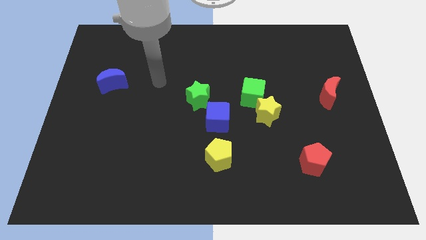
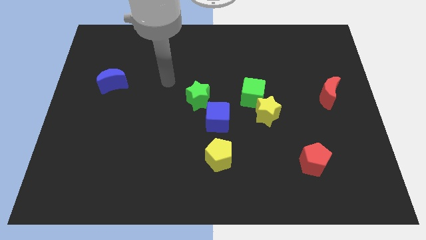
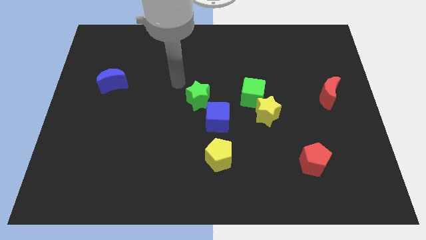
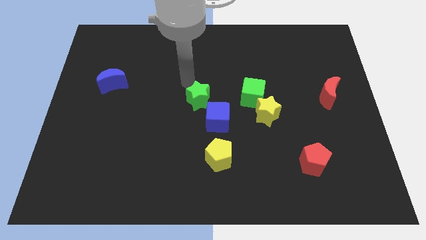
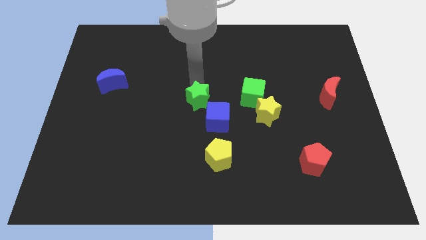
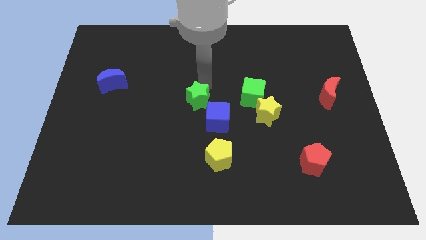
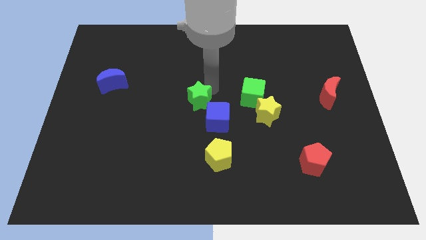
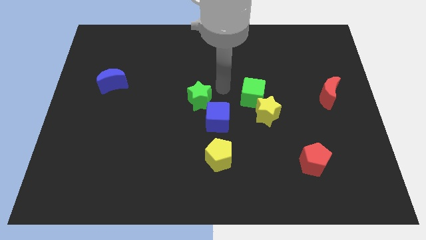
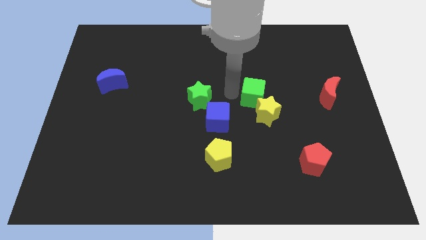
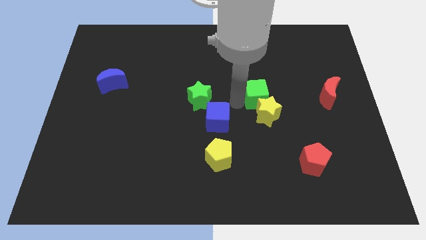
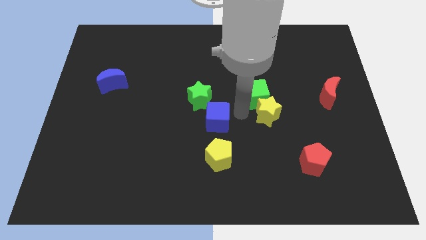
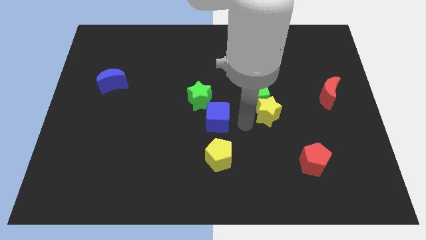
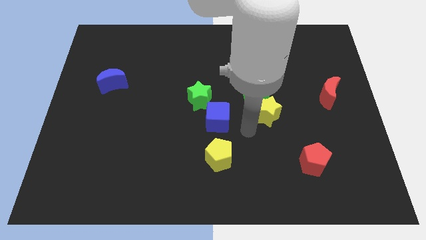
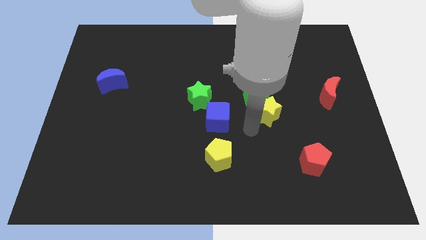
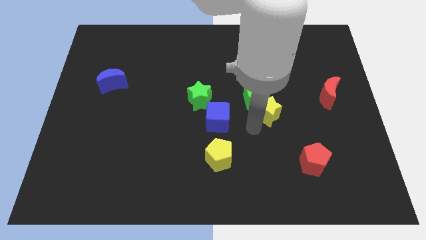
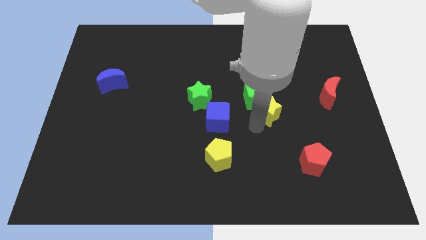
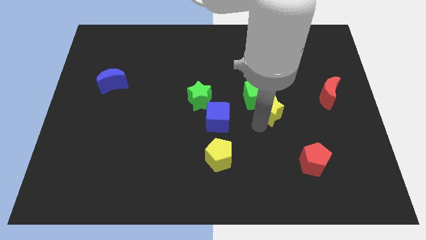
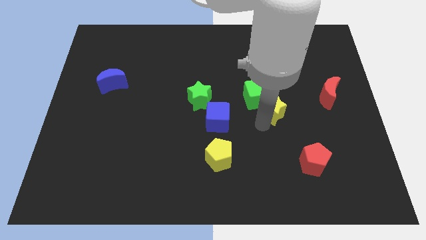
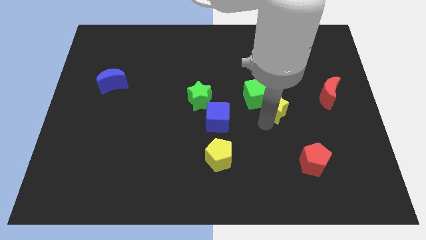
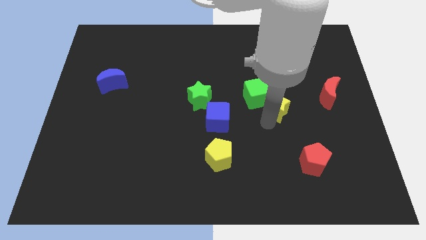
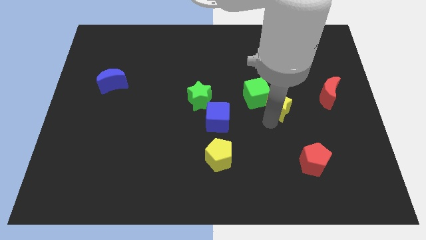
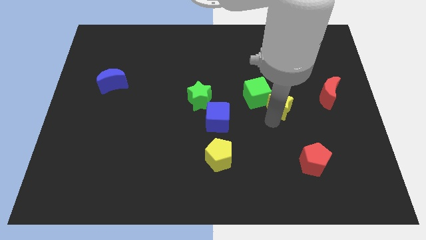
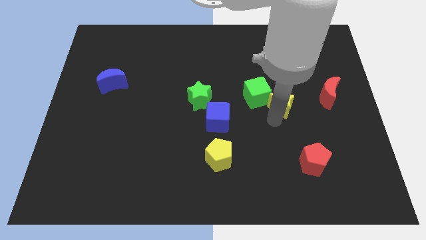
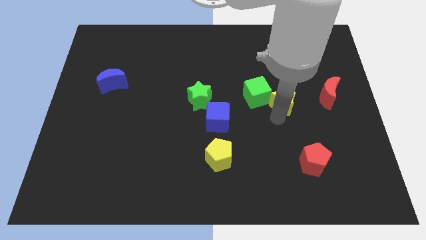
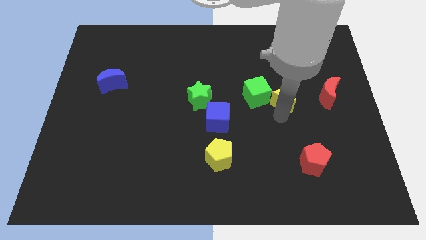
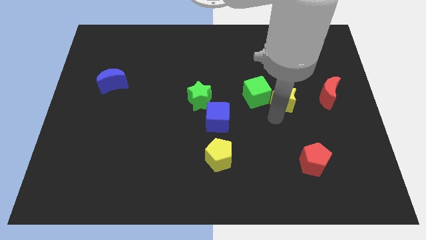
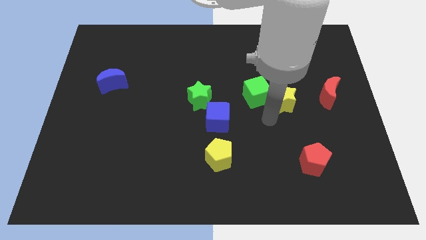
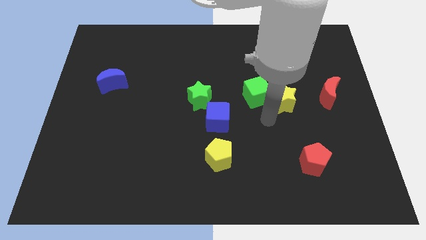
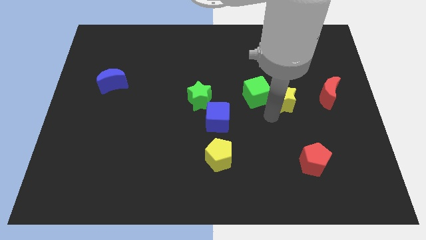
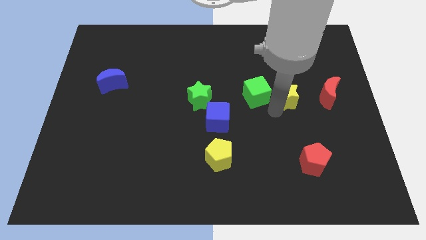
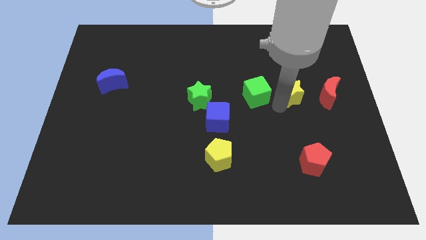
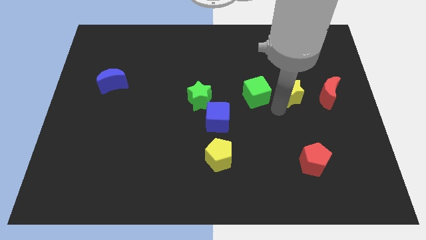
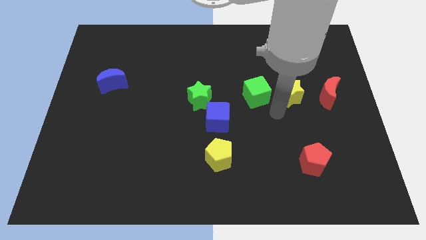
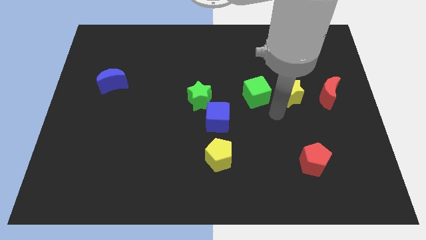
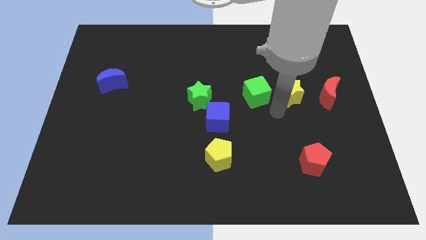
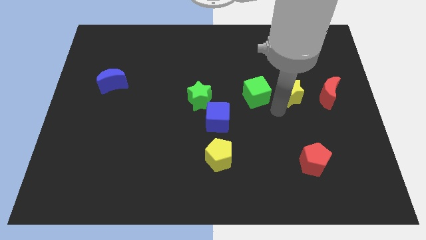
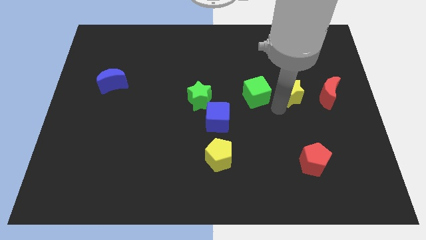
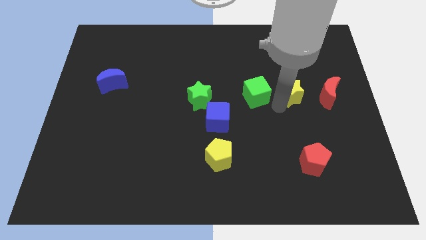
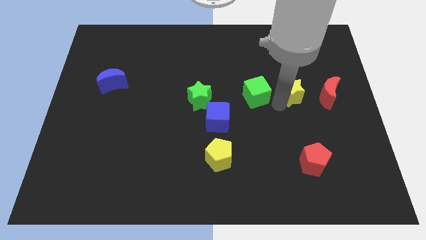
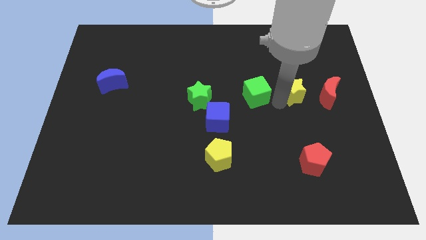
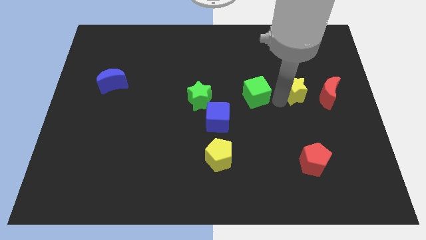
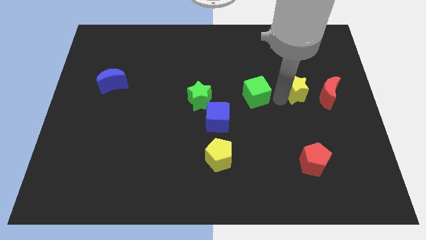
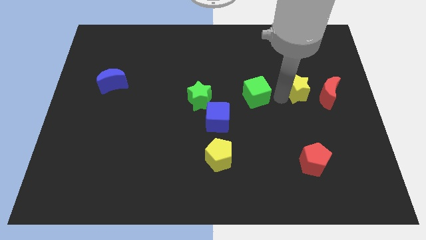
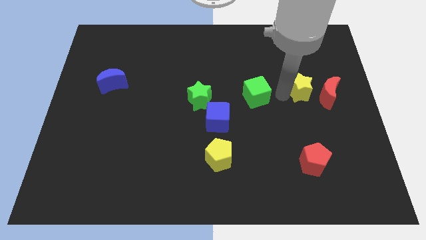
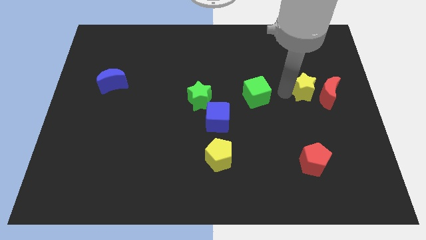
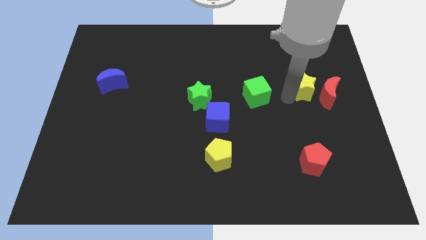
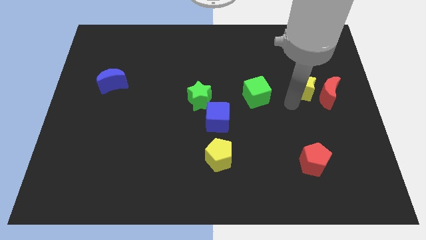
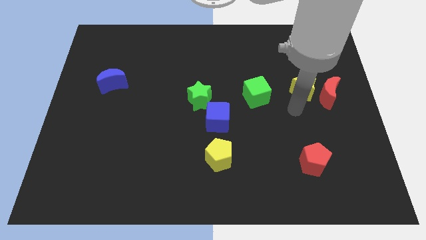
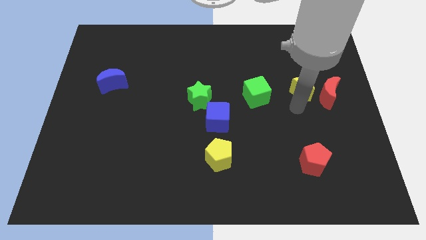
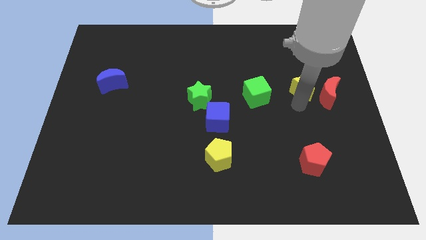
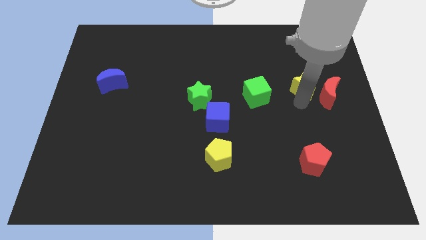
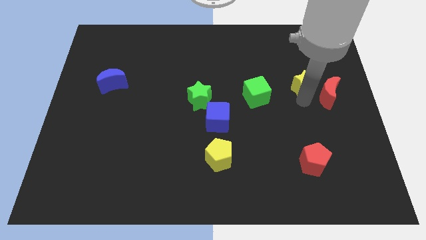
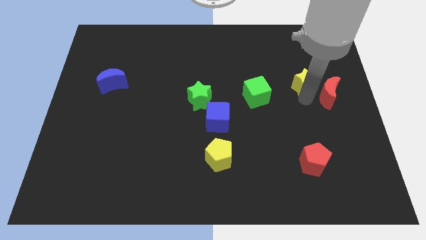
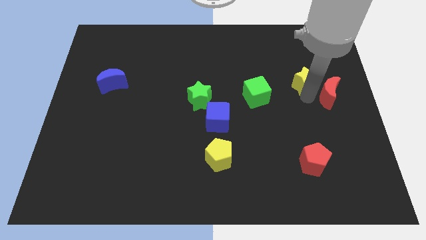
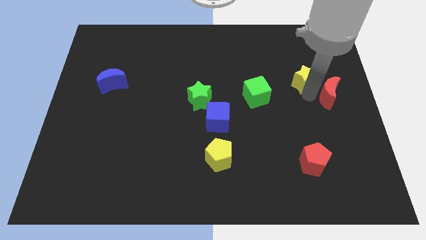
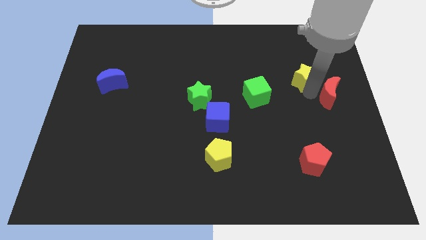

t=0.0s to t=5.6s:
slide the yellow star to the top of the red moon

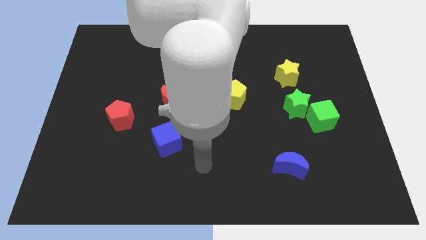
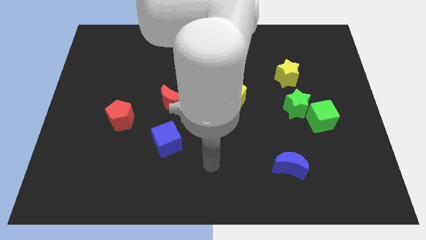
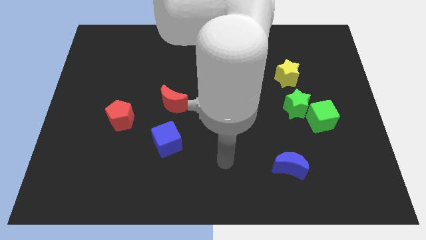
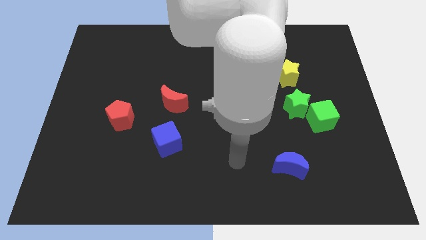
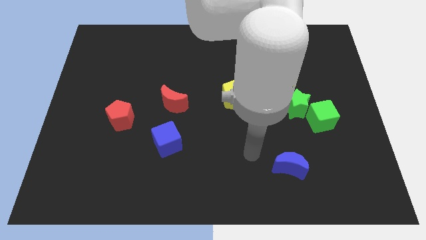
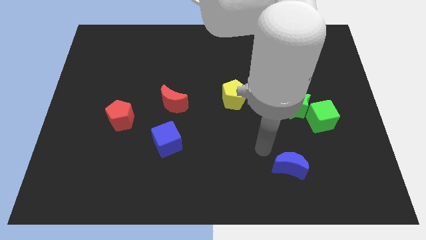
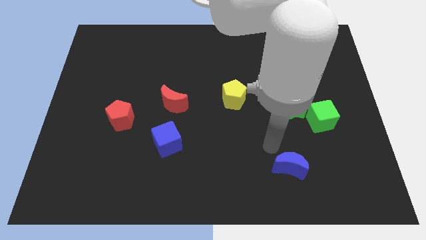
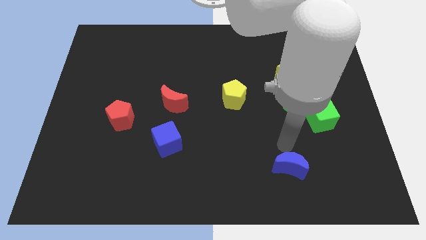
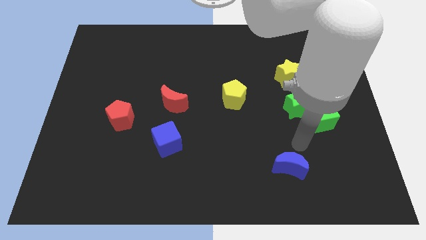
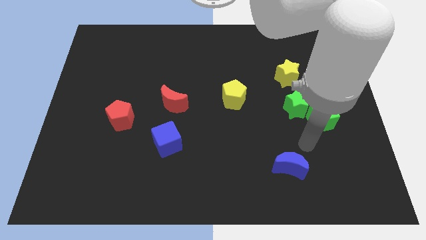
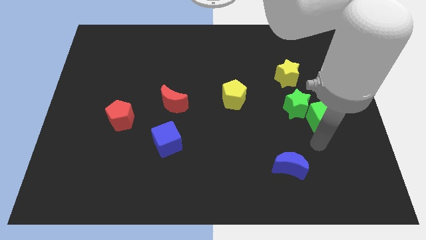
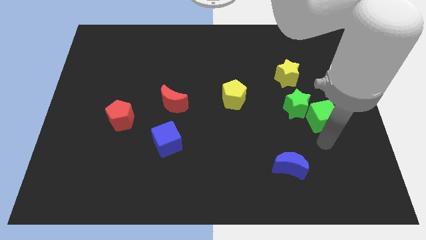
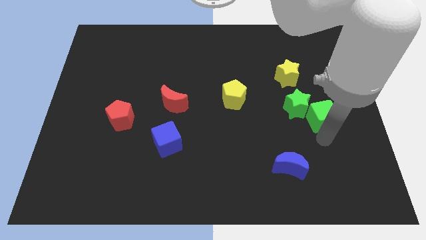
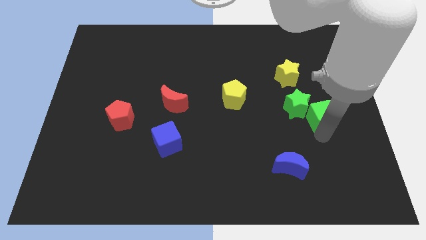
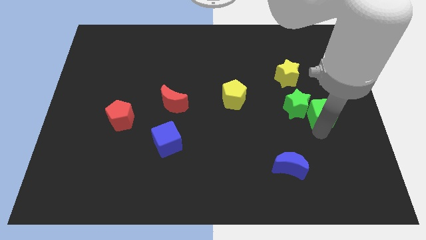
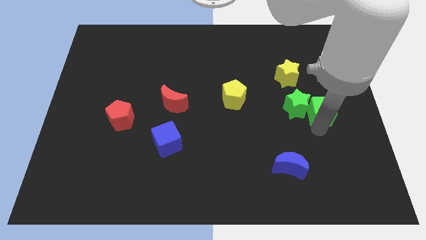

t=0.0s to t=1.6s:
push the green cube to the top right of the green star

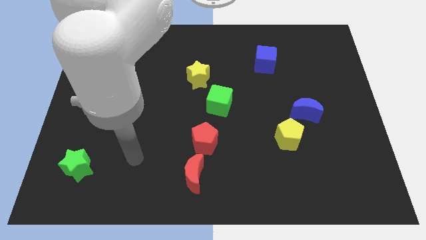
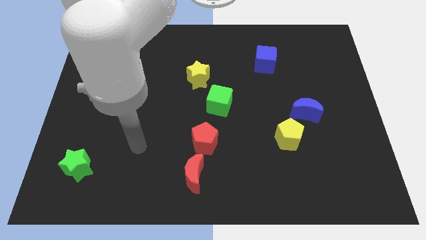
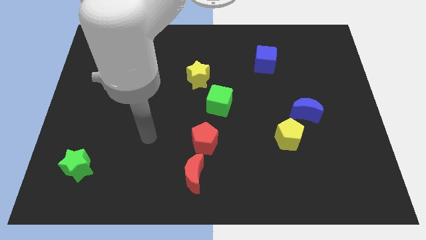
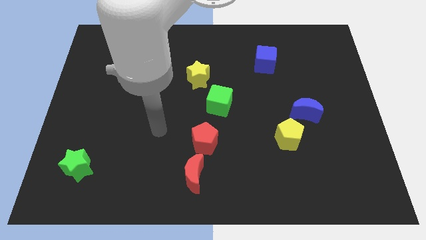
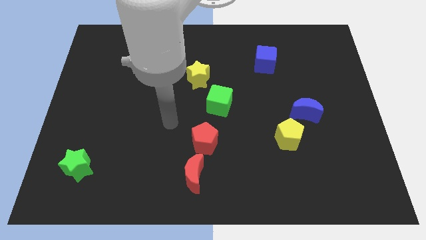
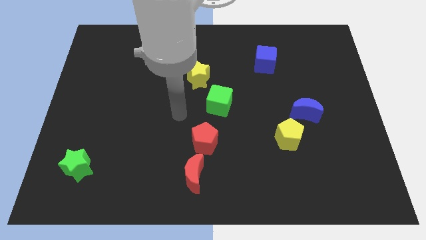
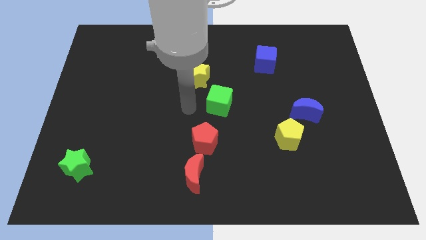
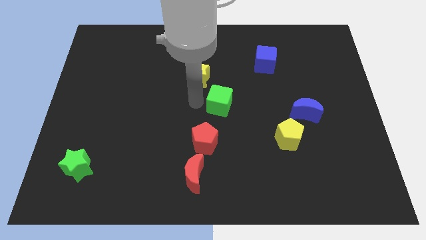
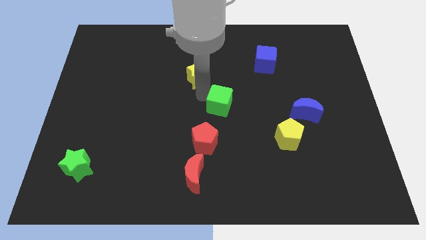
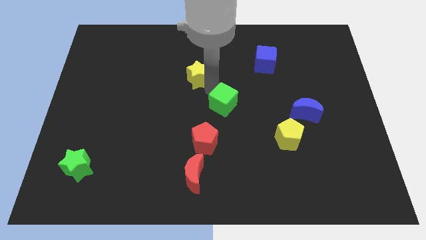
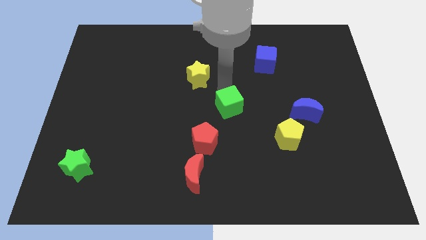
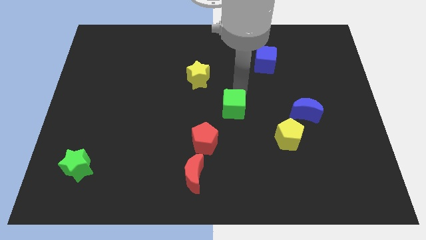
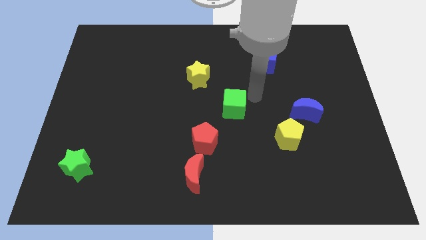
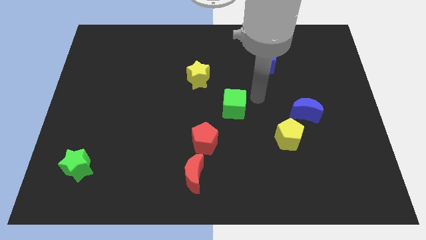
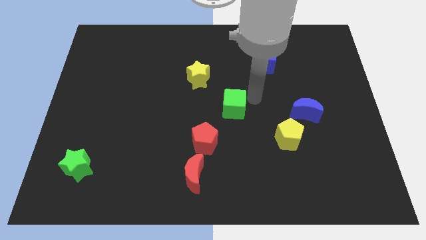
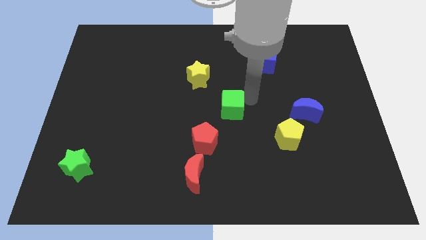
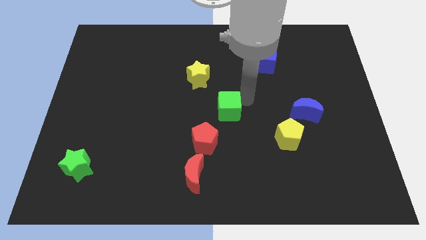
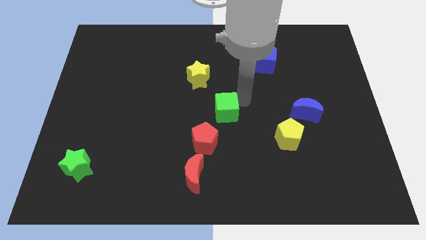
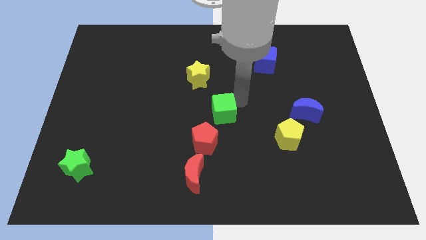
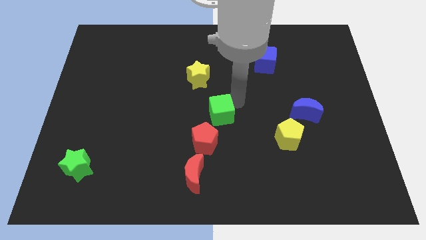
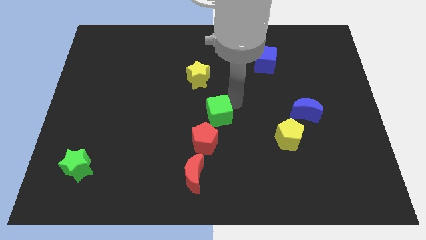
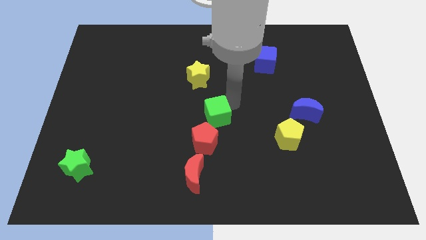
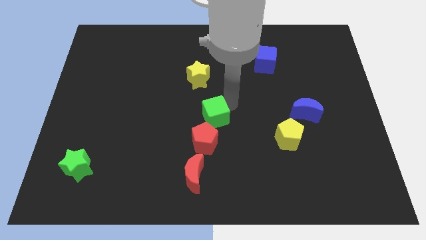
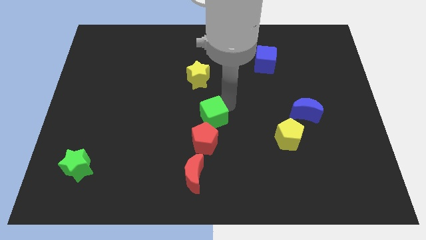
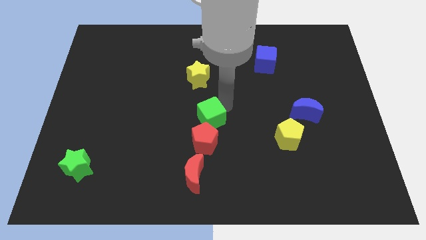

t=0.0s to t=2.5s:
move the green cube above the red moon
